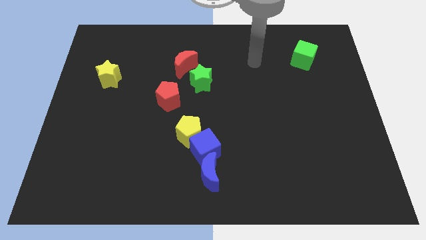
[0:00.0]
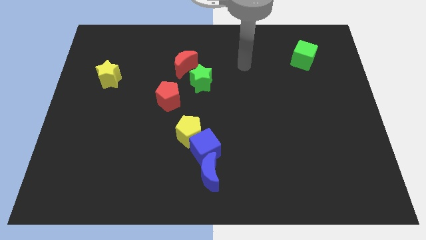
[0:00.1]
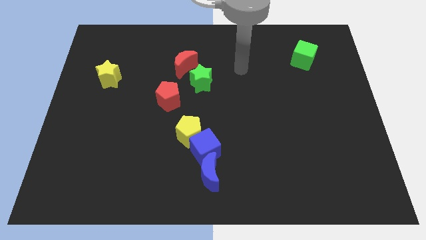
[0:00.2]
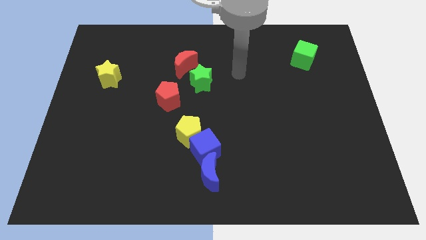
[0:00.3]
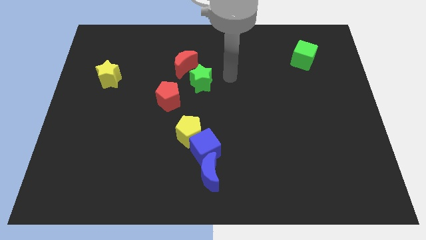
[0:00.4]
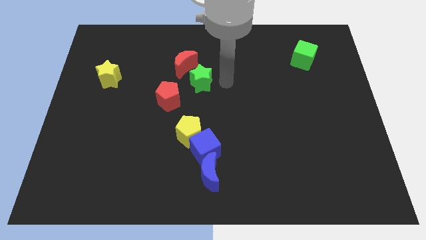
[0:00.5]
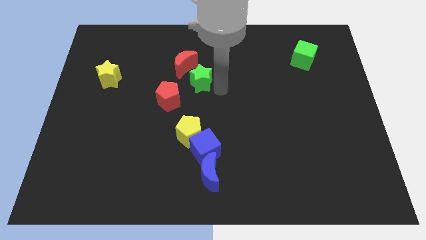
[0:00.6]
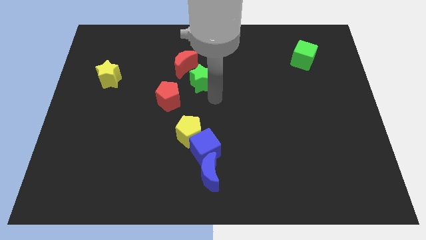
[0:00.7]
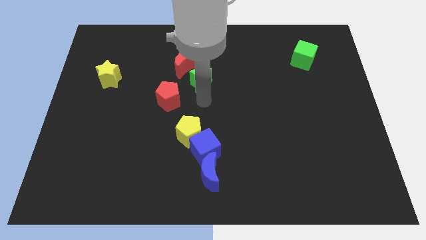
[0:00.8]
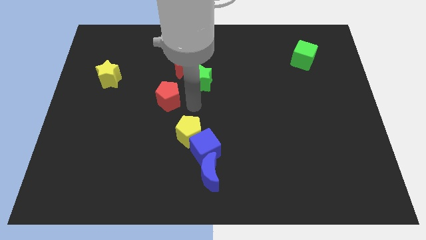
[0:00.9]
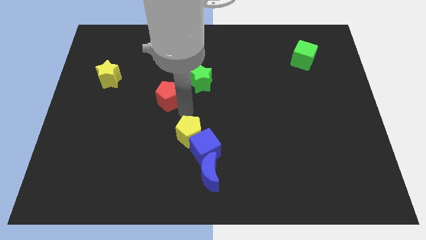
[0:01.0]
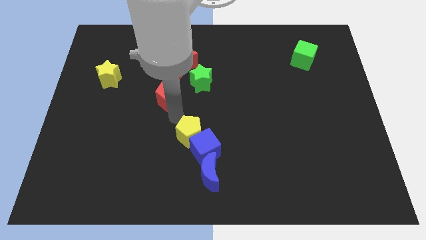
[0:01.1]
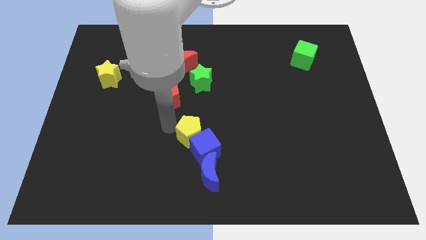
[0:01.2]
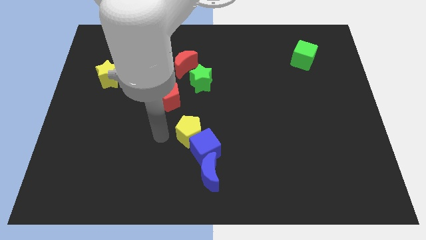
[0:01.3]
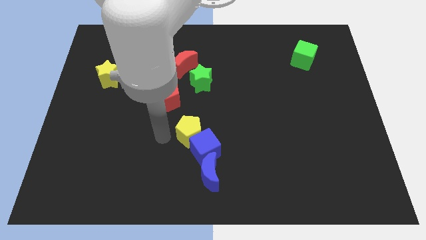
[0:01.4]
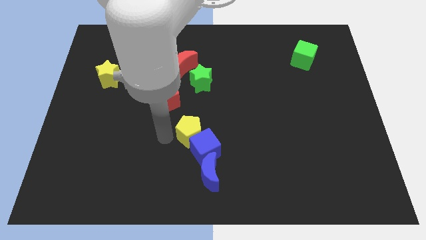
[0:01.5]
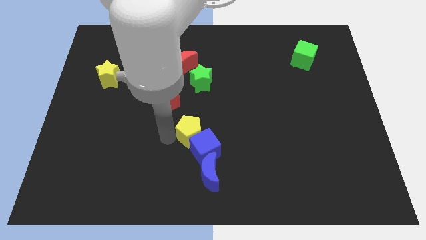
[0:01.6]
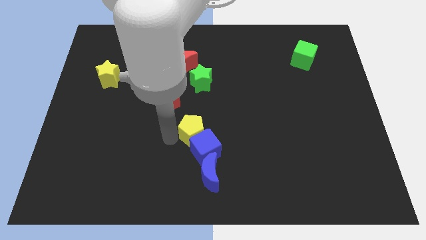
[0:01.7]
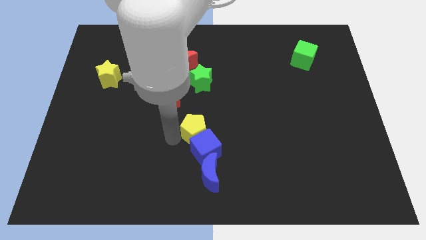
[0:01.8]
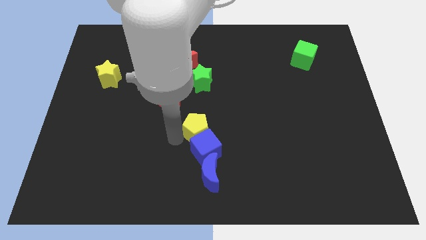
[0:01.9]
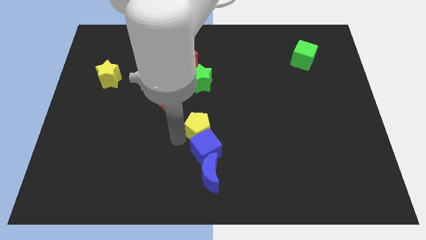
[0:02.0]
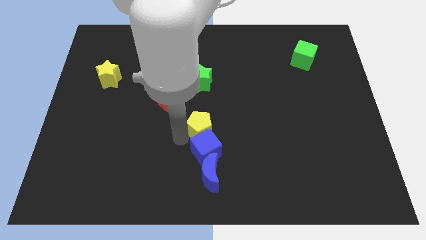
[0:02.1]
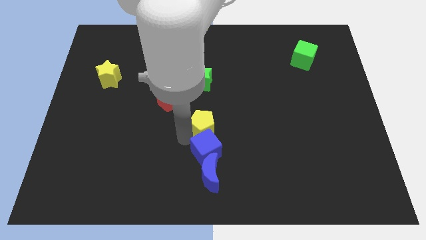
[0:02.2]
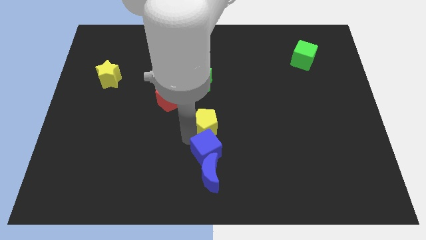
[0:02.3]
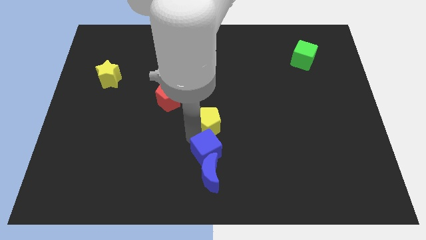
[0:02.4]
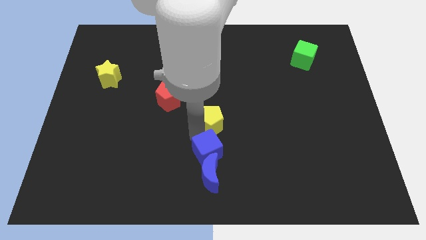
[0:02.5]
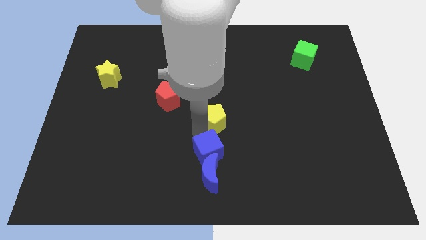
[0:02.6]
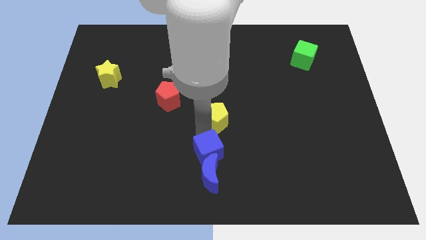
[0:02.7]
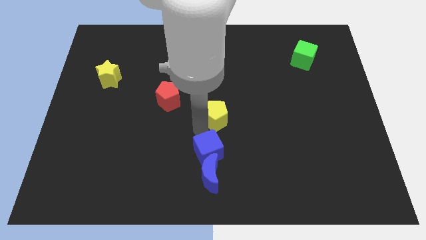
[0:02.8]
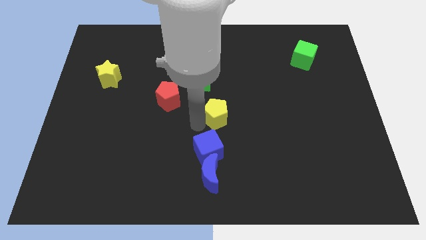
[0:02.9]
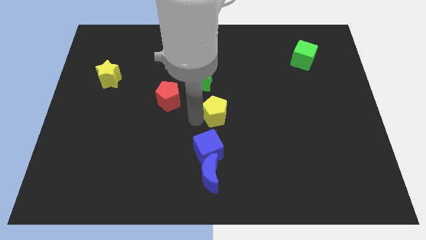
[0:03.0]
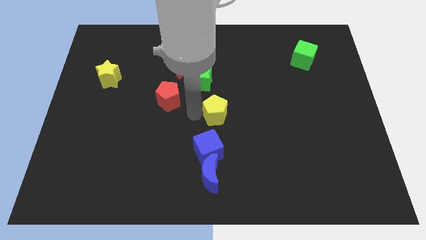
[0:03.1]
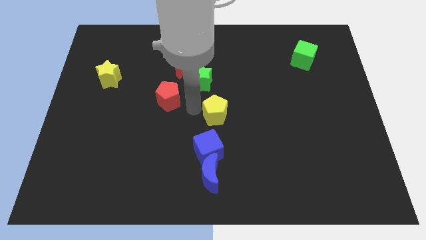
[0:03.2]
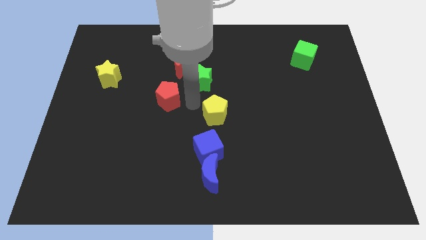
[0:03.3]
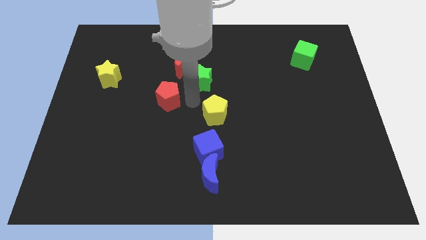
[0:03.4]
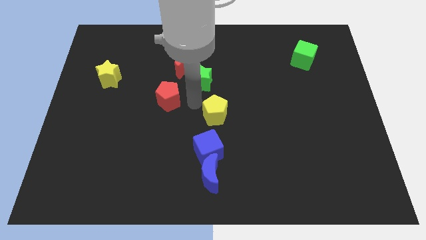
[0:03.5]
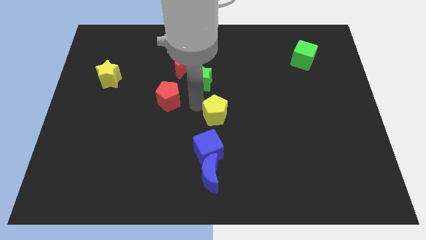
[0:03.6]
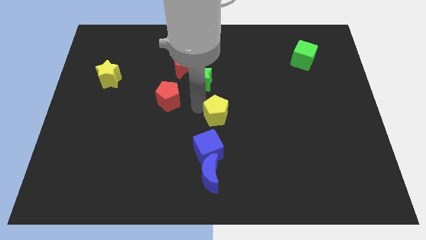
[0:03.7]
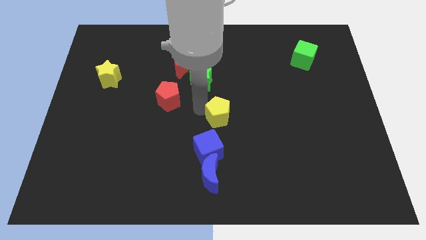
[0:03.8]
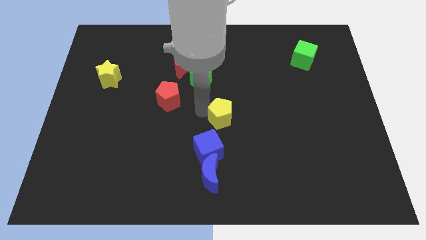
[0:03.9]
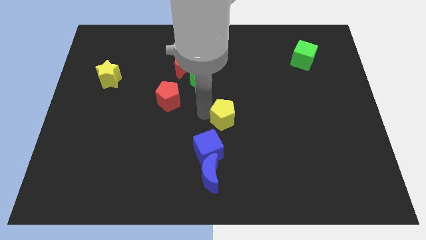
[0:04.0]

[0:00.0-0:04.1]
slightly push the yellow pentagon to the right

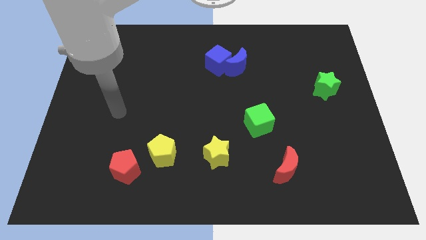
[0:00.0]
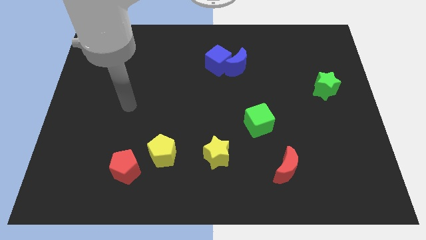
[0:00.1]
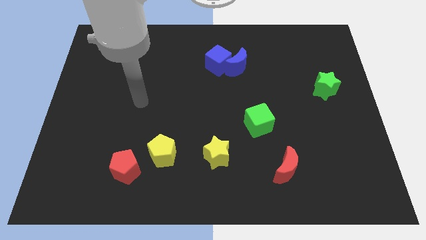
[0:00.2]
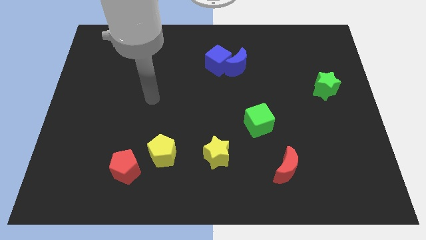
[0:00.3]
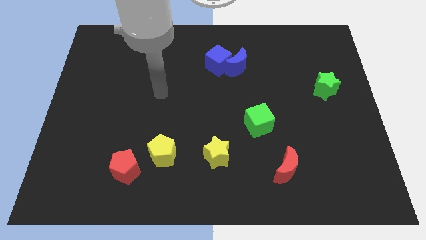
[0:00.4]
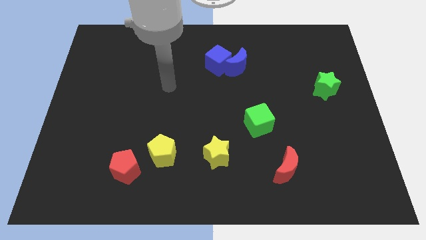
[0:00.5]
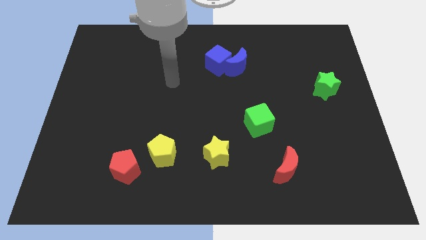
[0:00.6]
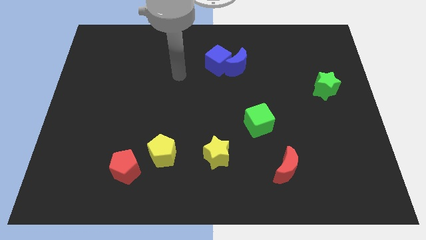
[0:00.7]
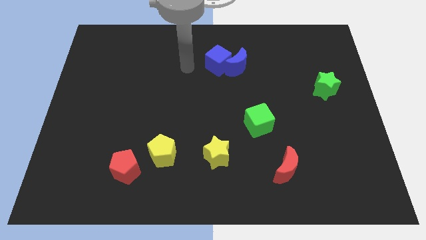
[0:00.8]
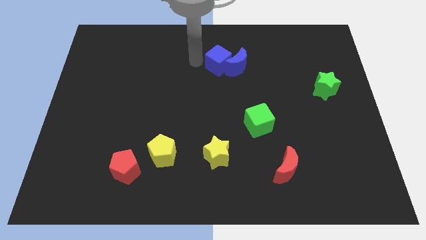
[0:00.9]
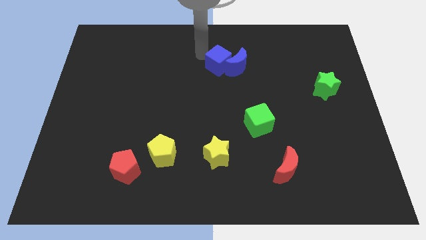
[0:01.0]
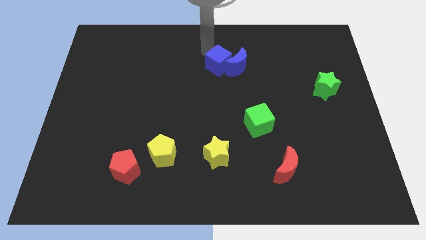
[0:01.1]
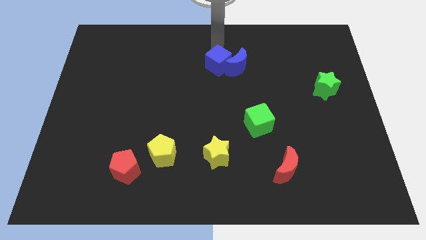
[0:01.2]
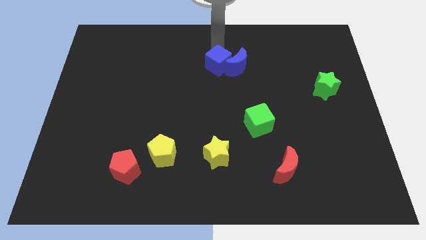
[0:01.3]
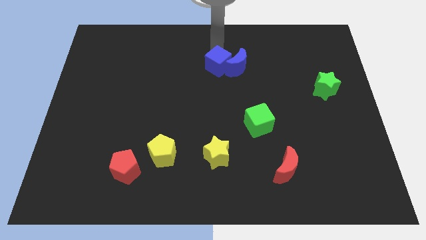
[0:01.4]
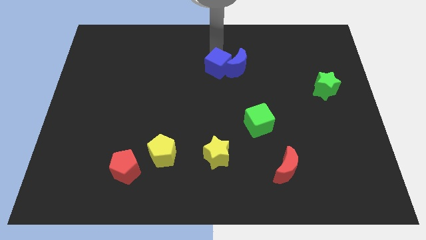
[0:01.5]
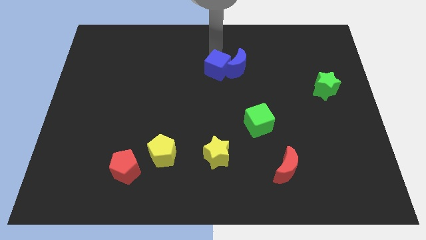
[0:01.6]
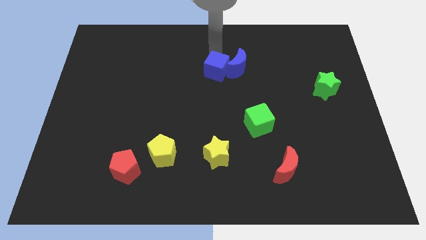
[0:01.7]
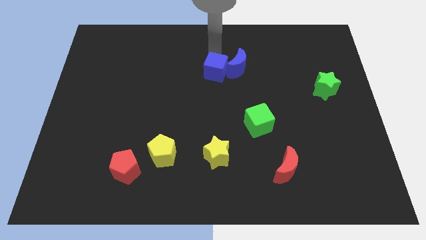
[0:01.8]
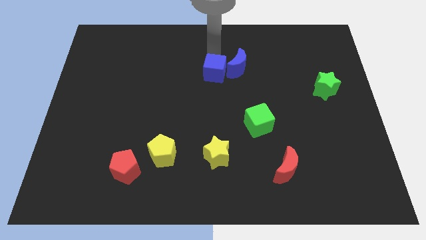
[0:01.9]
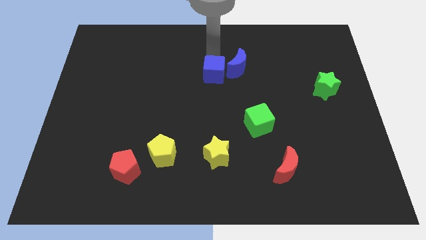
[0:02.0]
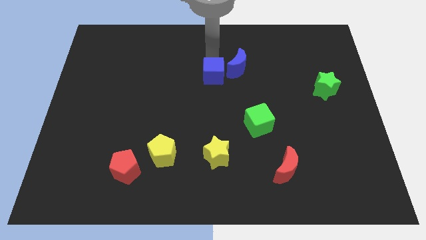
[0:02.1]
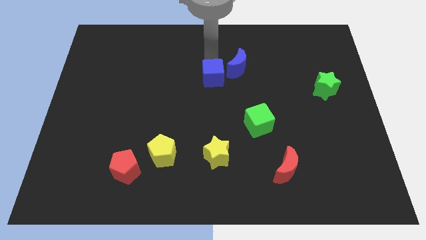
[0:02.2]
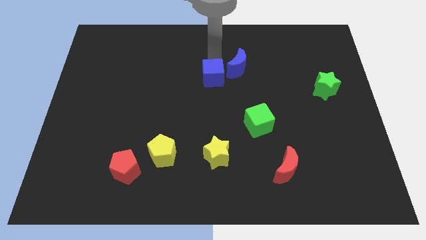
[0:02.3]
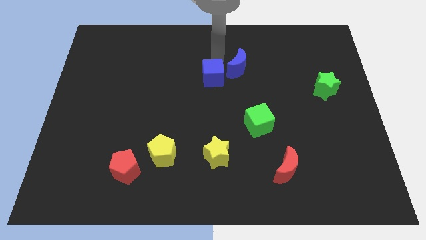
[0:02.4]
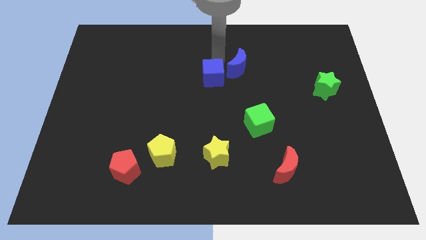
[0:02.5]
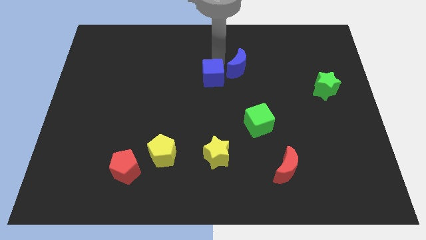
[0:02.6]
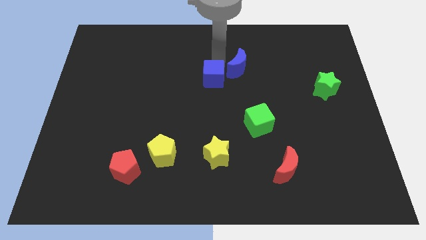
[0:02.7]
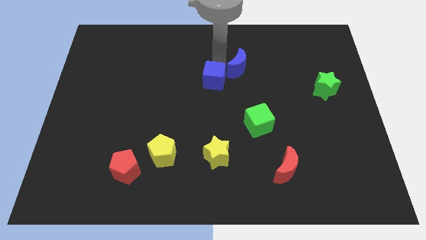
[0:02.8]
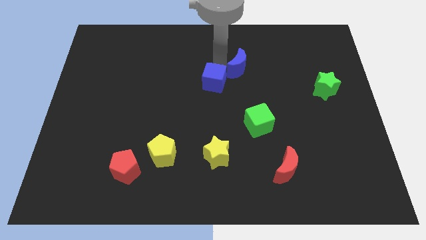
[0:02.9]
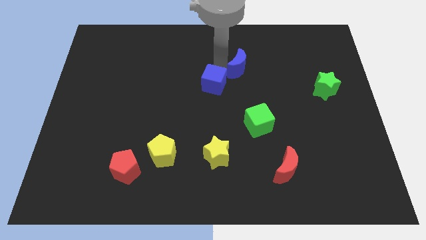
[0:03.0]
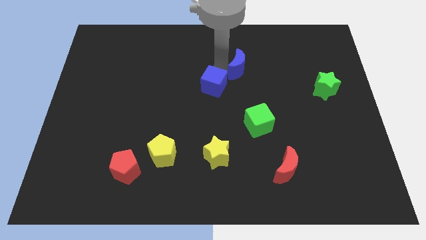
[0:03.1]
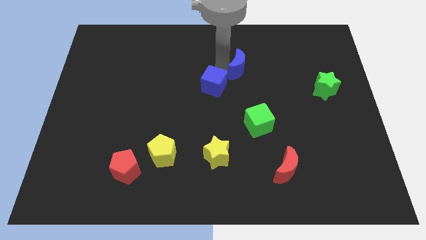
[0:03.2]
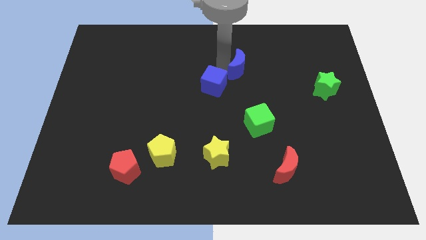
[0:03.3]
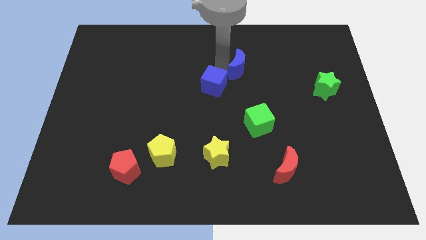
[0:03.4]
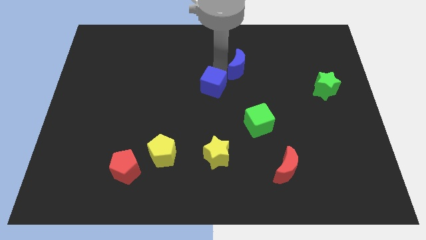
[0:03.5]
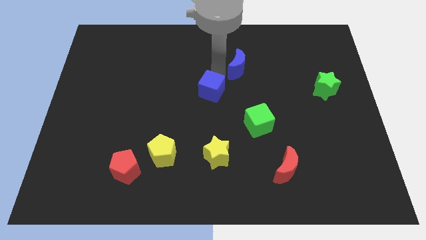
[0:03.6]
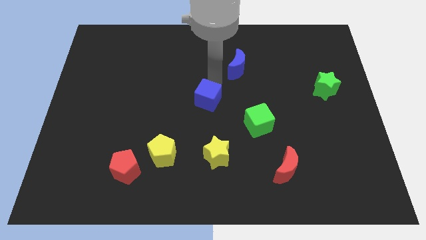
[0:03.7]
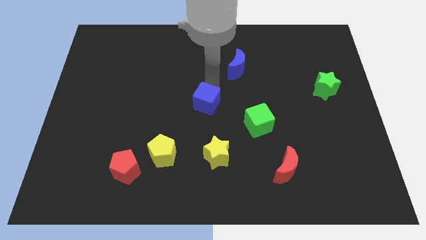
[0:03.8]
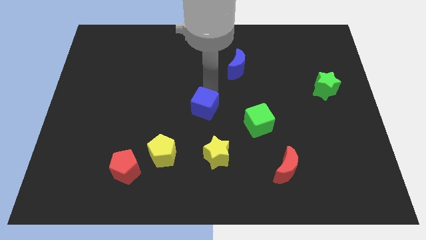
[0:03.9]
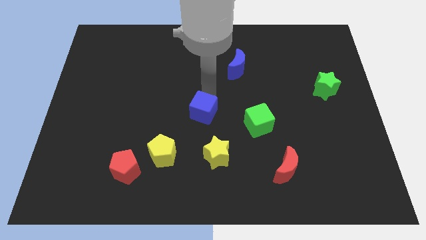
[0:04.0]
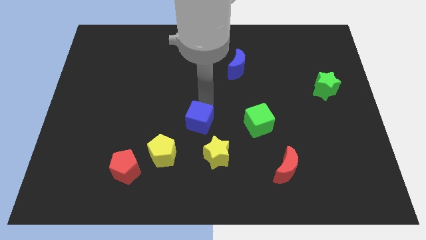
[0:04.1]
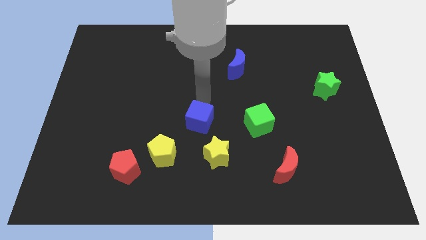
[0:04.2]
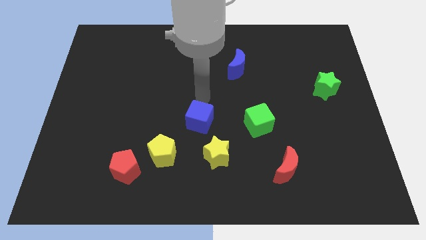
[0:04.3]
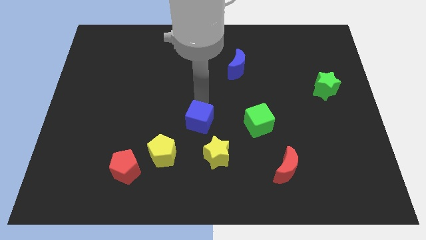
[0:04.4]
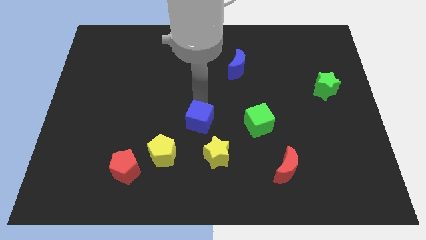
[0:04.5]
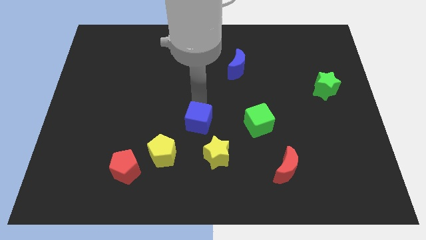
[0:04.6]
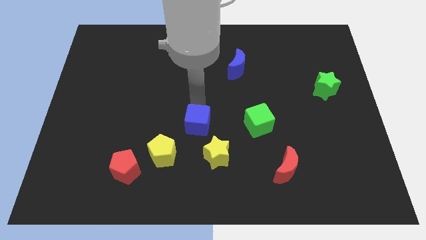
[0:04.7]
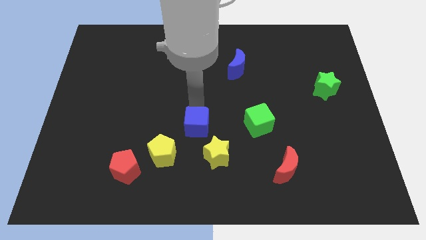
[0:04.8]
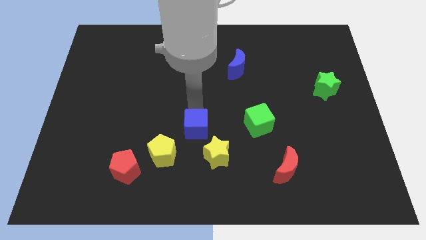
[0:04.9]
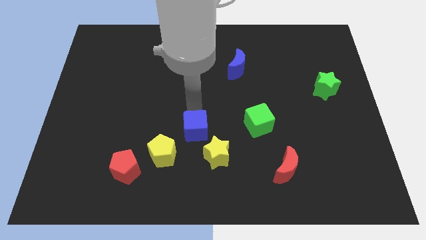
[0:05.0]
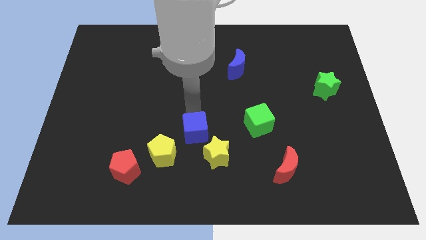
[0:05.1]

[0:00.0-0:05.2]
slide the blue cube downwards
